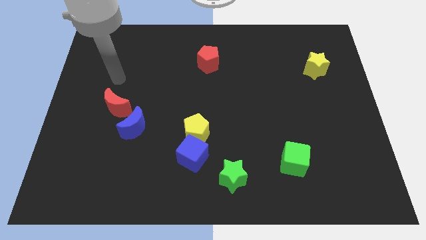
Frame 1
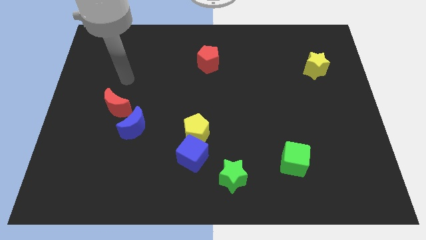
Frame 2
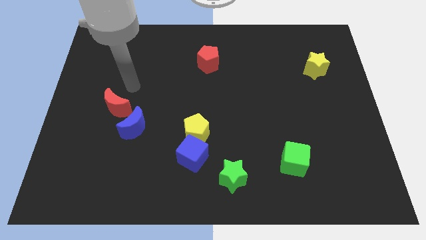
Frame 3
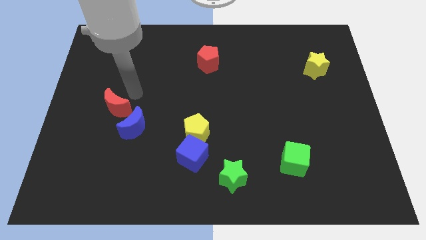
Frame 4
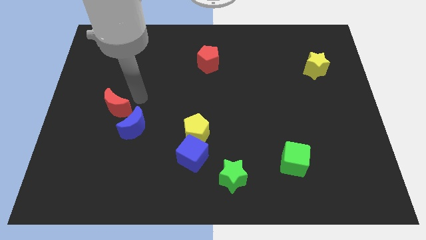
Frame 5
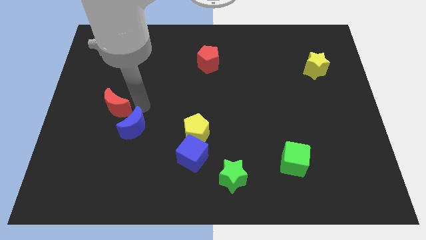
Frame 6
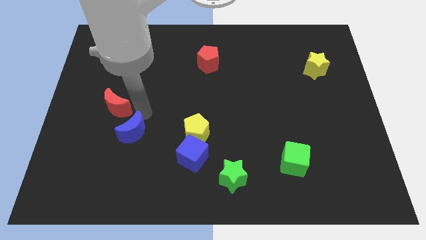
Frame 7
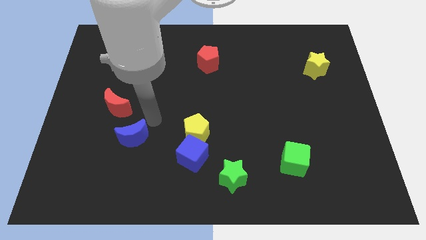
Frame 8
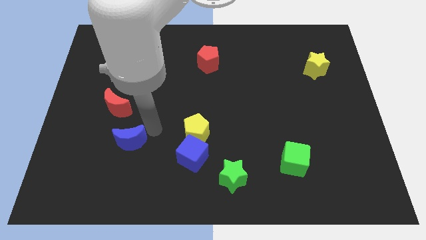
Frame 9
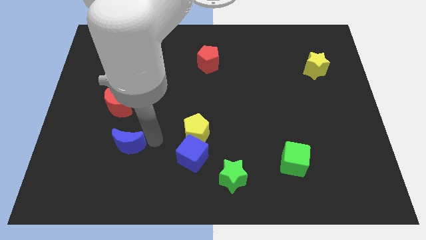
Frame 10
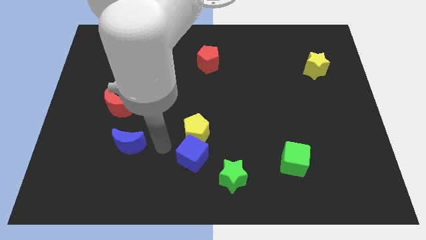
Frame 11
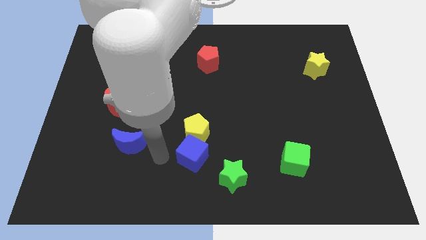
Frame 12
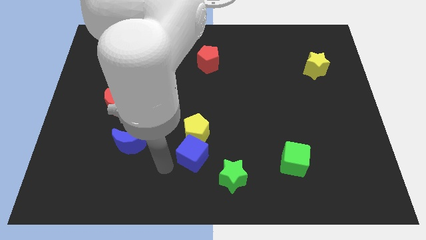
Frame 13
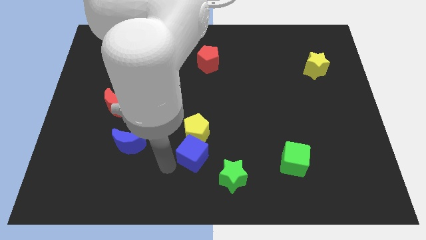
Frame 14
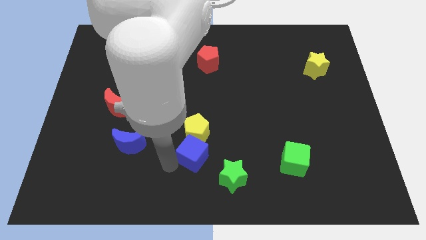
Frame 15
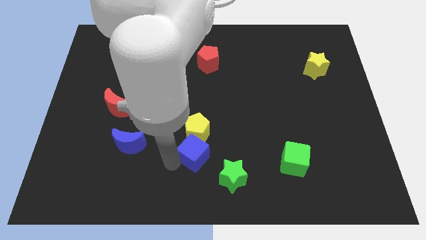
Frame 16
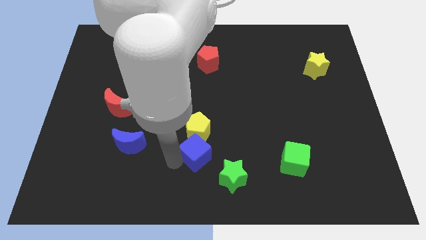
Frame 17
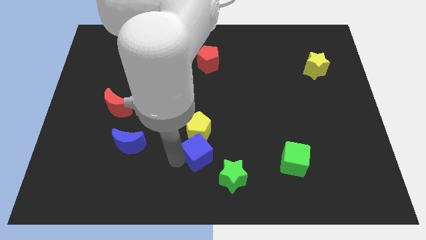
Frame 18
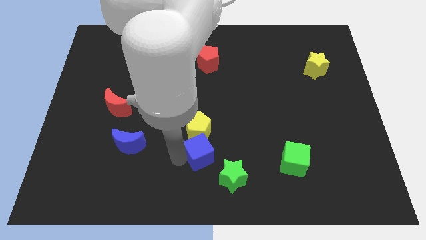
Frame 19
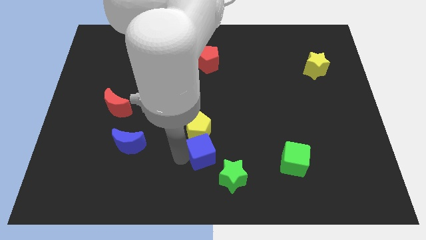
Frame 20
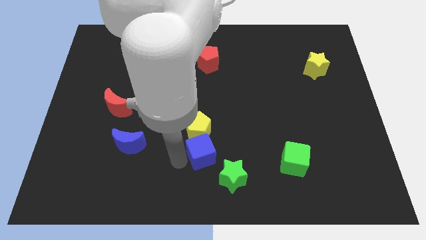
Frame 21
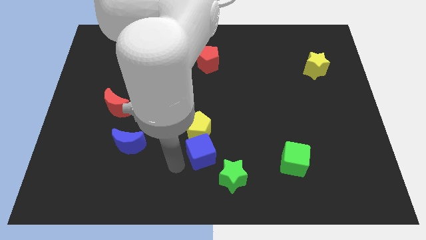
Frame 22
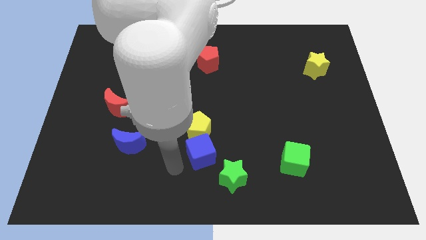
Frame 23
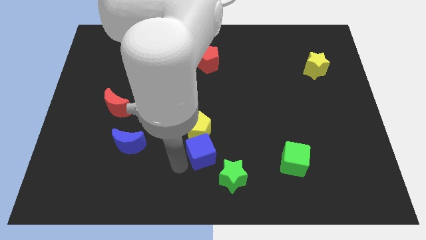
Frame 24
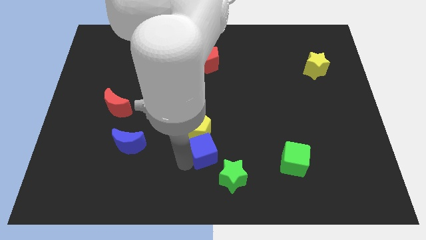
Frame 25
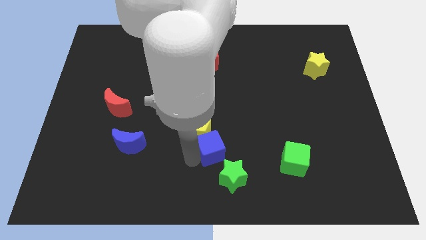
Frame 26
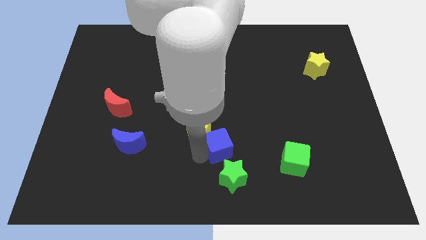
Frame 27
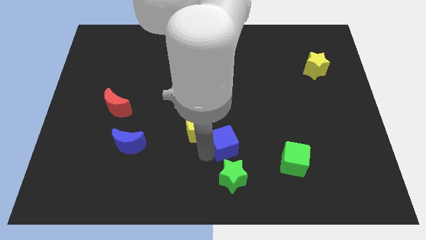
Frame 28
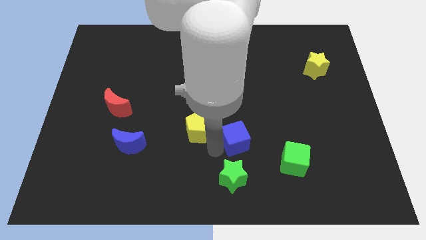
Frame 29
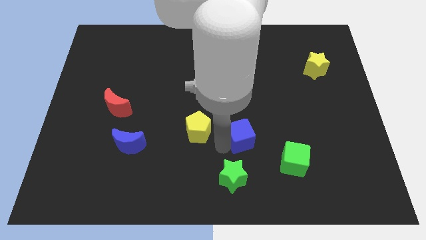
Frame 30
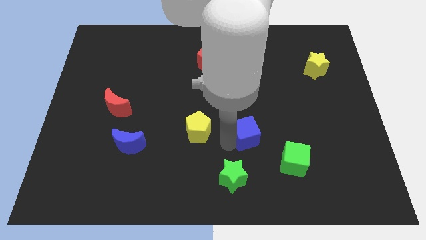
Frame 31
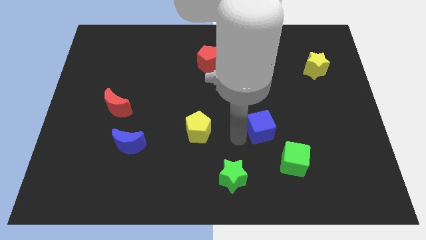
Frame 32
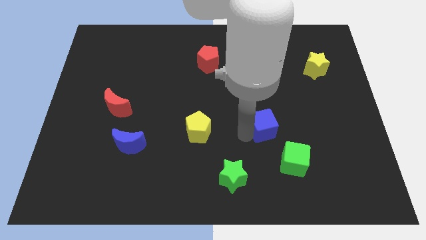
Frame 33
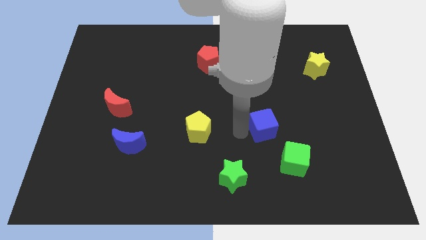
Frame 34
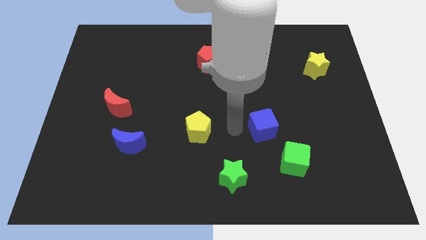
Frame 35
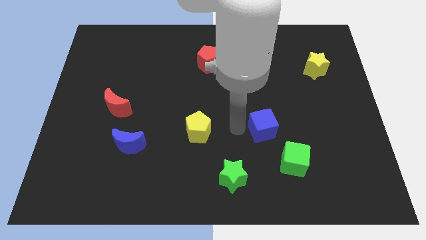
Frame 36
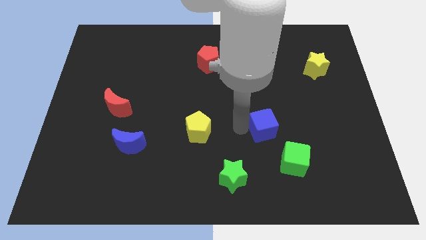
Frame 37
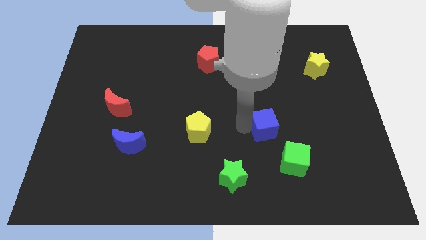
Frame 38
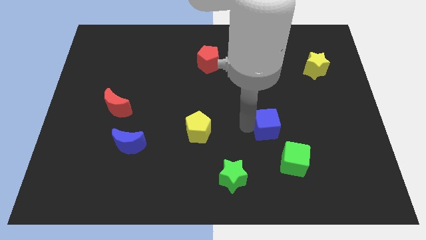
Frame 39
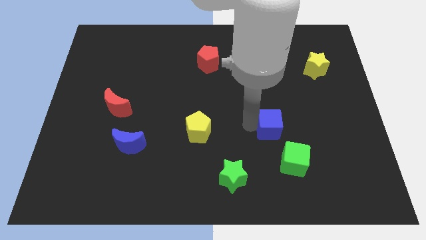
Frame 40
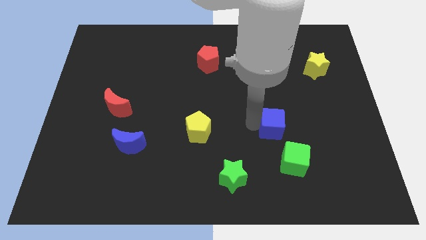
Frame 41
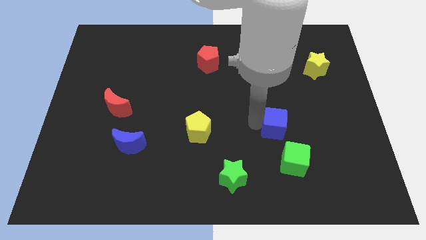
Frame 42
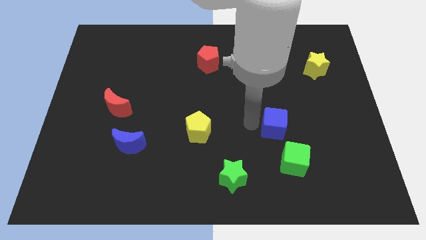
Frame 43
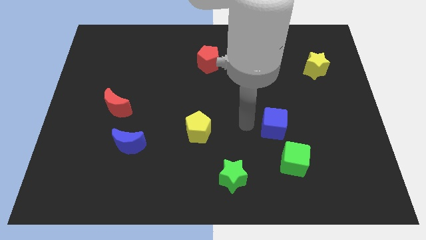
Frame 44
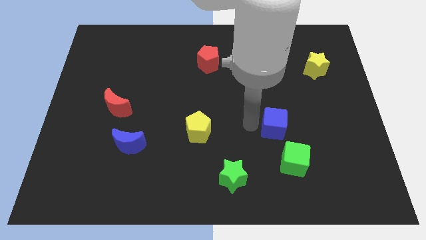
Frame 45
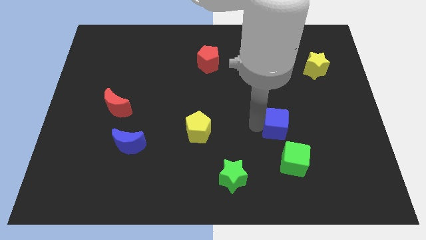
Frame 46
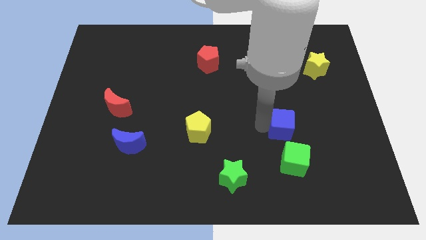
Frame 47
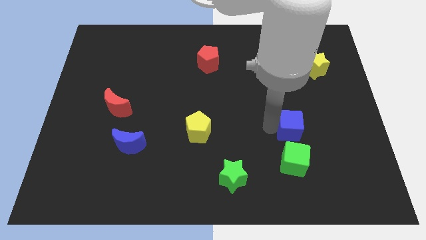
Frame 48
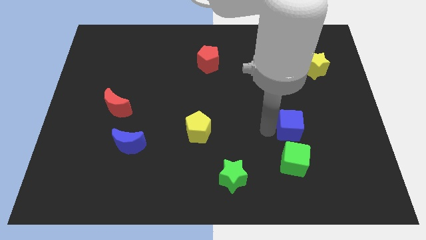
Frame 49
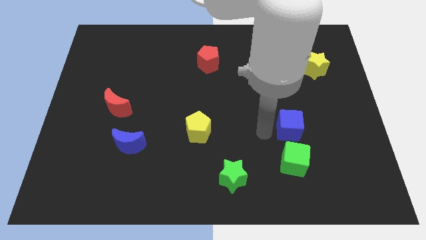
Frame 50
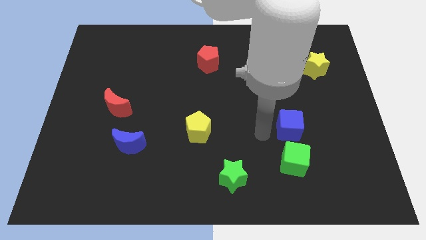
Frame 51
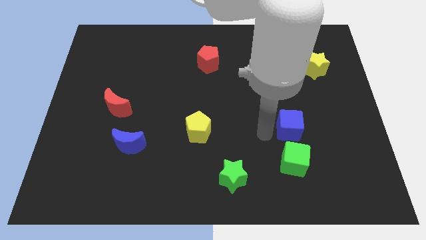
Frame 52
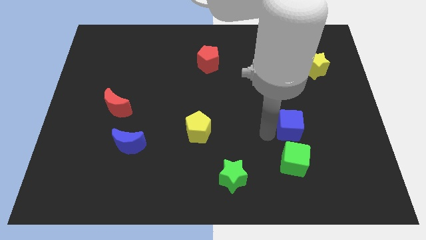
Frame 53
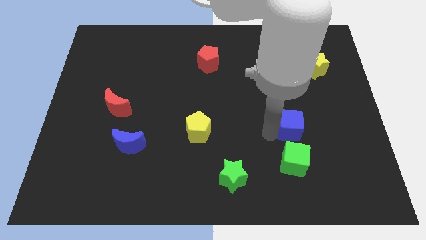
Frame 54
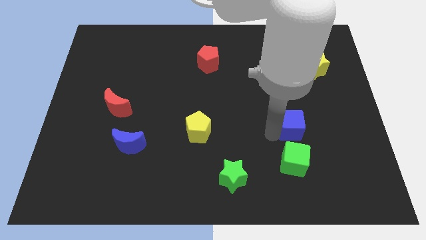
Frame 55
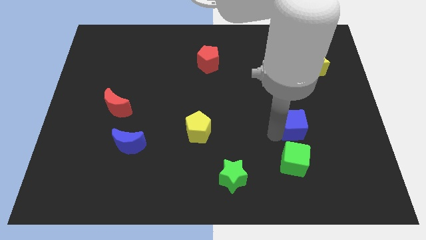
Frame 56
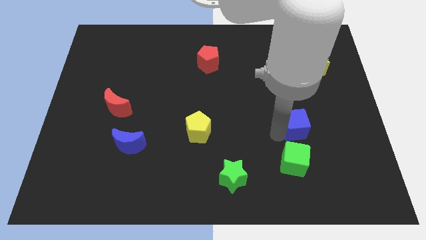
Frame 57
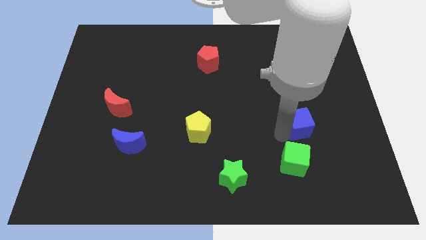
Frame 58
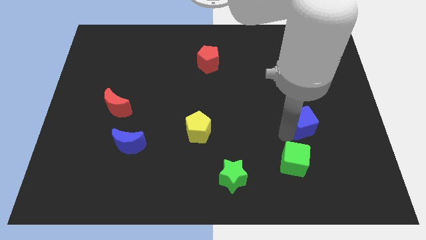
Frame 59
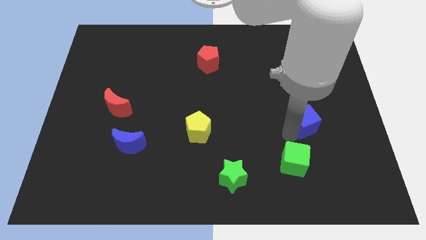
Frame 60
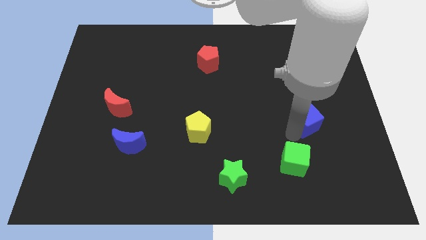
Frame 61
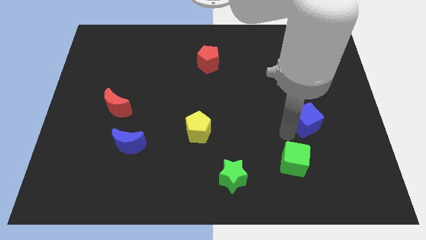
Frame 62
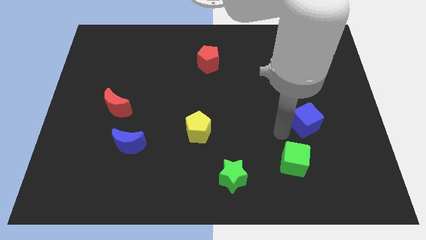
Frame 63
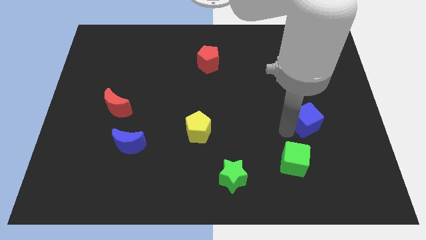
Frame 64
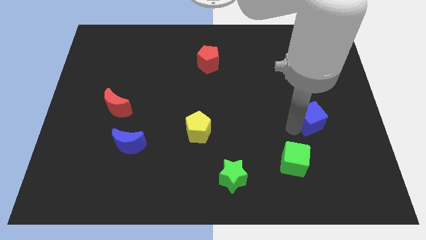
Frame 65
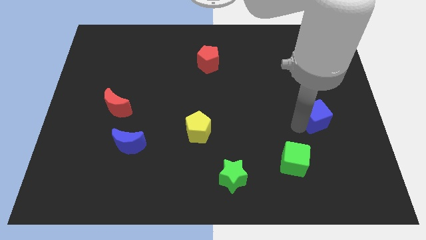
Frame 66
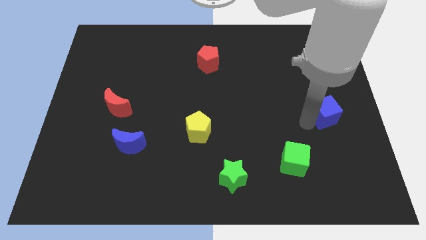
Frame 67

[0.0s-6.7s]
push the blue cube to the right side of the board
